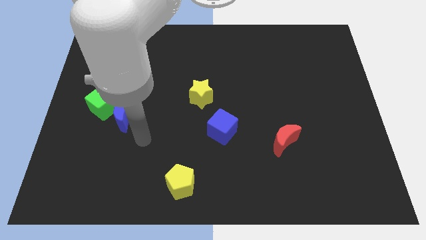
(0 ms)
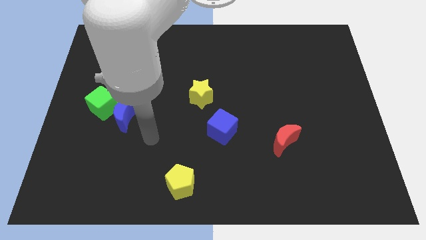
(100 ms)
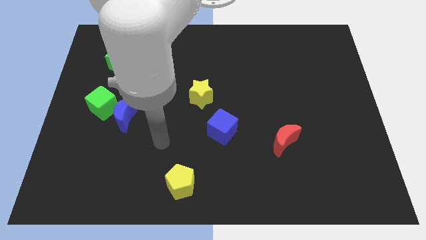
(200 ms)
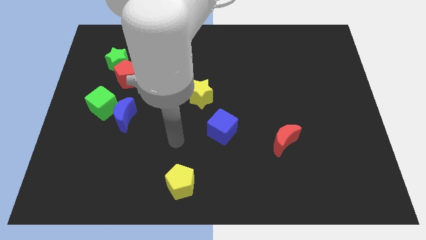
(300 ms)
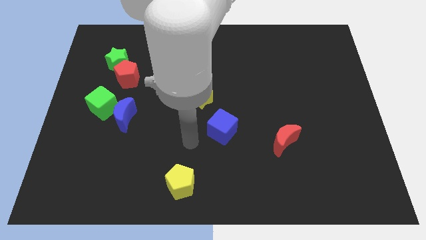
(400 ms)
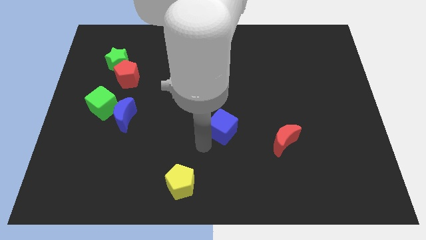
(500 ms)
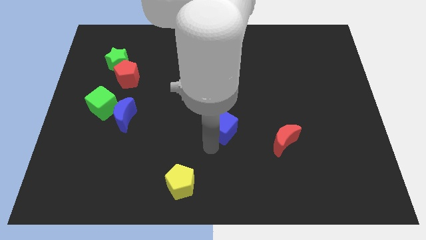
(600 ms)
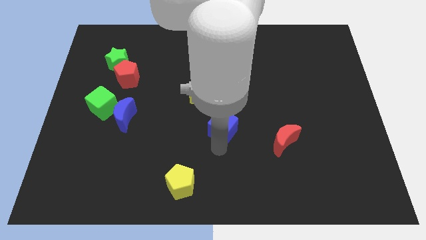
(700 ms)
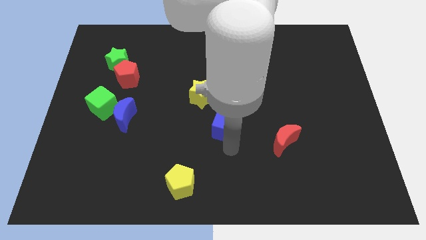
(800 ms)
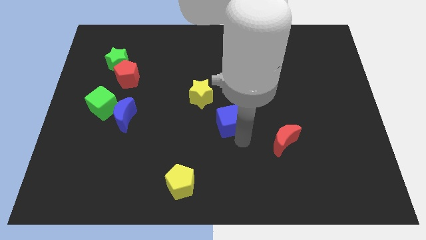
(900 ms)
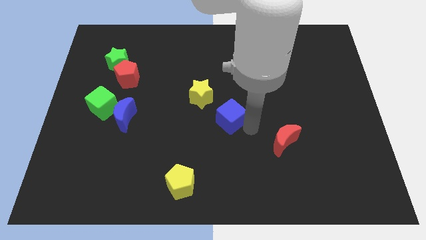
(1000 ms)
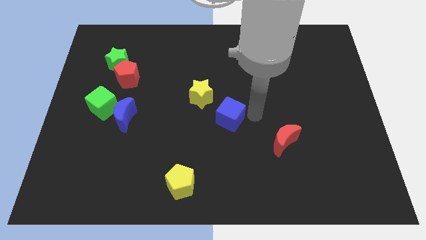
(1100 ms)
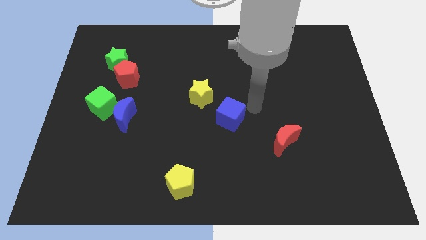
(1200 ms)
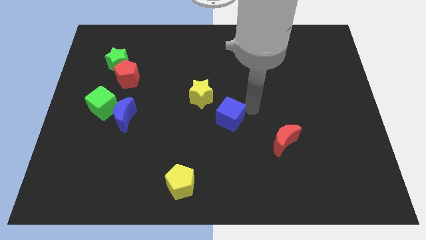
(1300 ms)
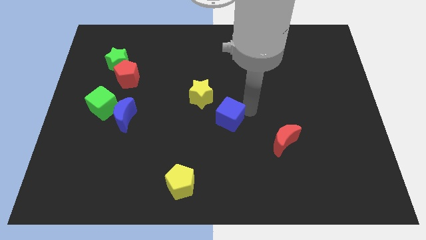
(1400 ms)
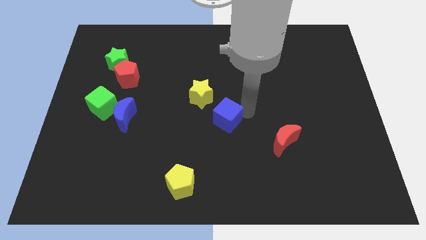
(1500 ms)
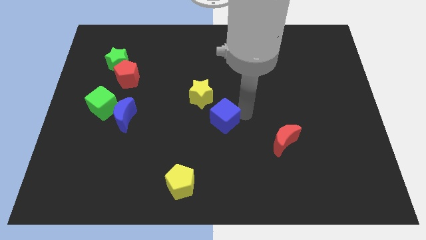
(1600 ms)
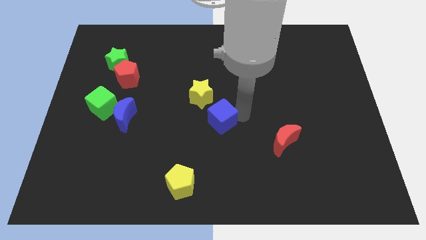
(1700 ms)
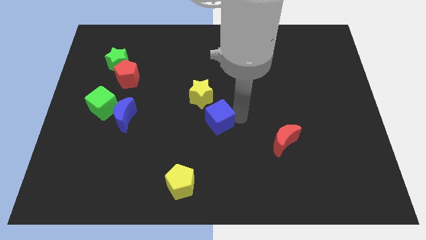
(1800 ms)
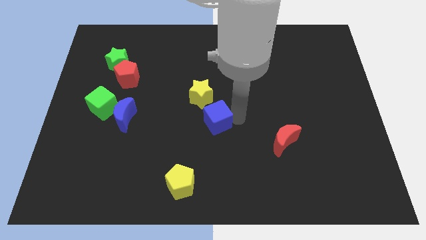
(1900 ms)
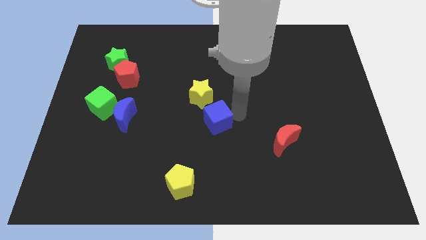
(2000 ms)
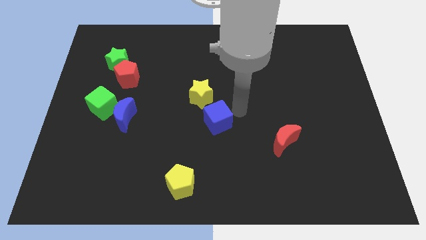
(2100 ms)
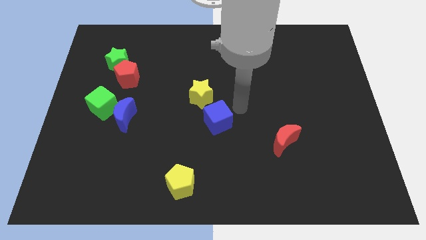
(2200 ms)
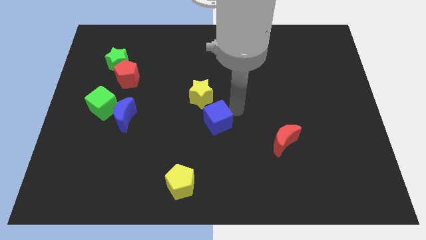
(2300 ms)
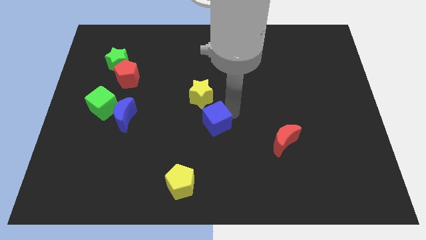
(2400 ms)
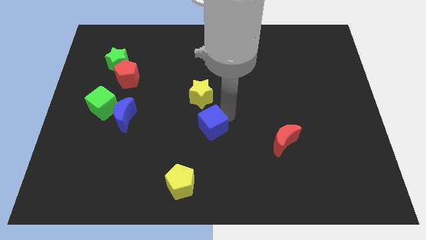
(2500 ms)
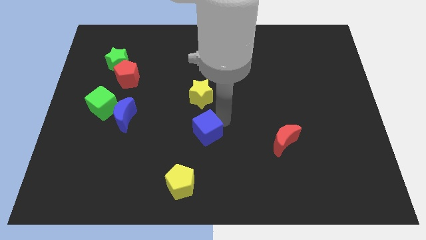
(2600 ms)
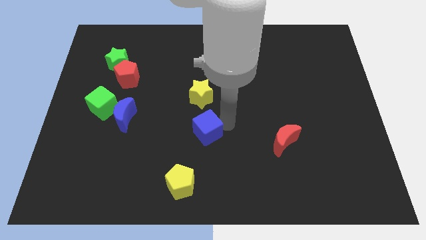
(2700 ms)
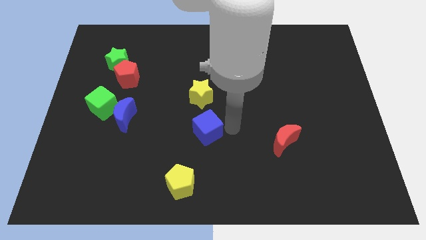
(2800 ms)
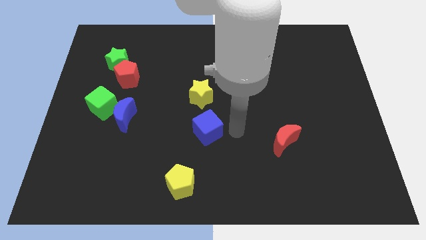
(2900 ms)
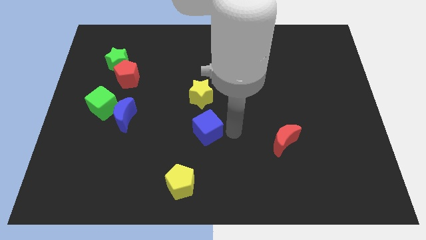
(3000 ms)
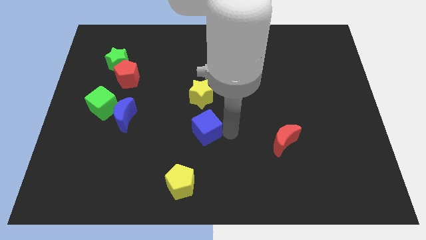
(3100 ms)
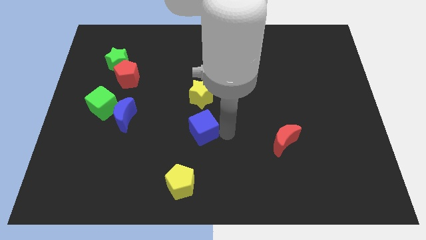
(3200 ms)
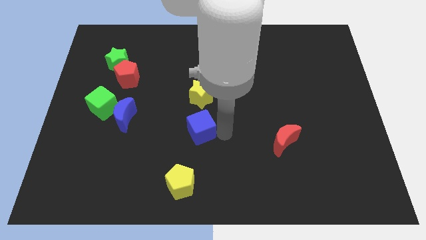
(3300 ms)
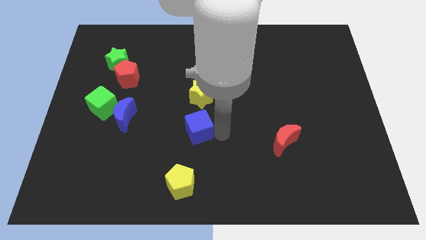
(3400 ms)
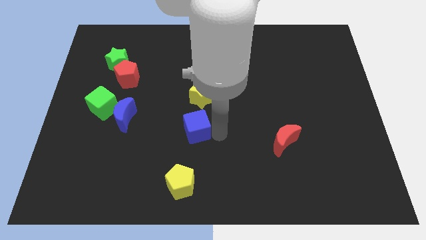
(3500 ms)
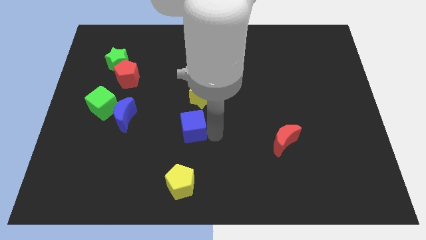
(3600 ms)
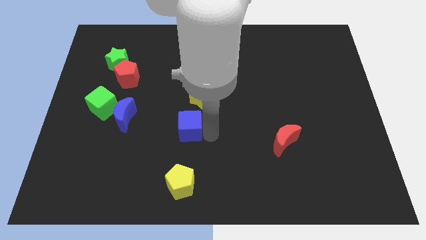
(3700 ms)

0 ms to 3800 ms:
move the blue cube a bit left

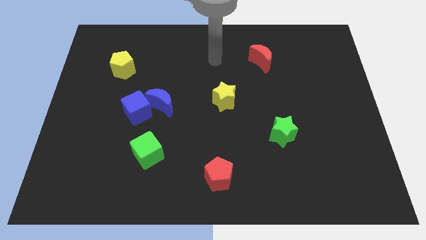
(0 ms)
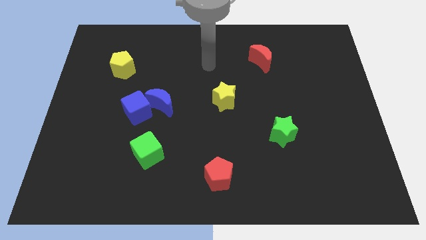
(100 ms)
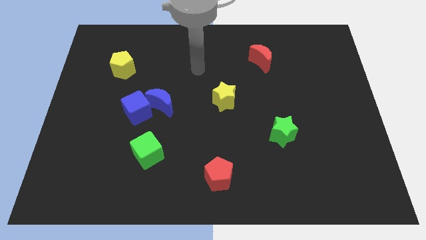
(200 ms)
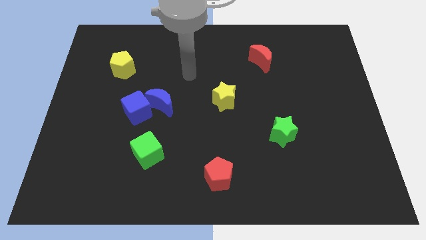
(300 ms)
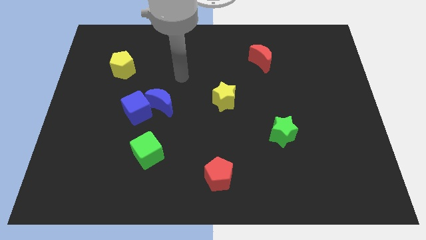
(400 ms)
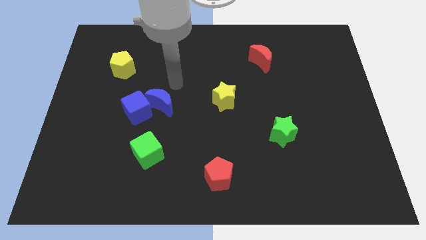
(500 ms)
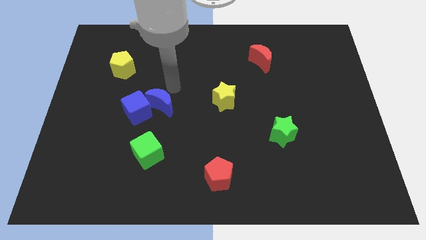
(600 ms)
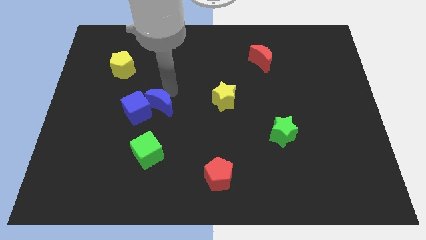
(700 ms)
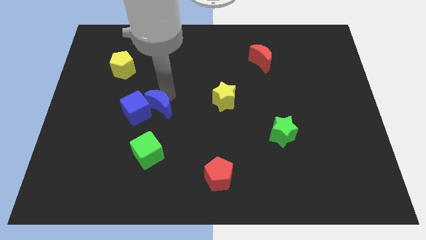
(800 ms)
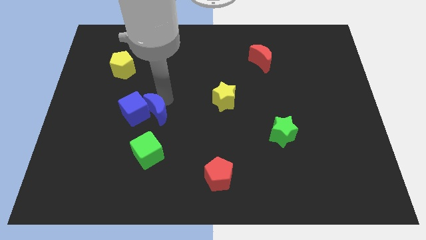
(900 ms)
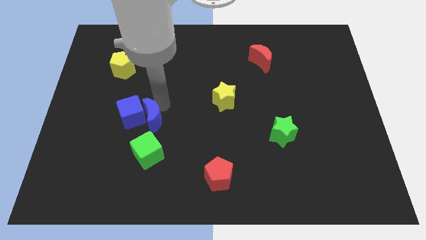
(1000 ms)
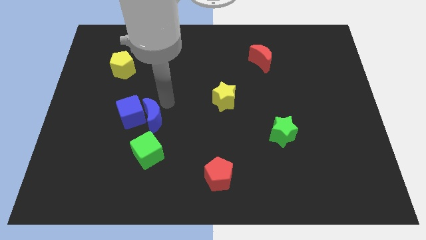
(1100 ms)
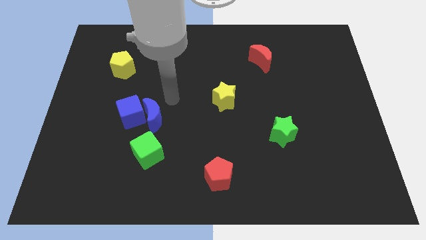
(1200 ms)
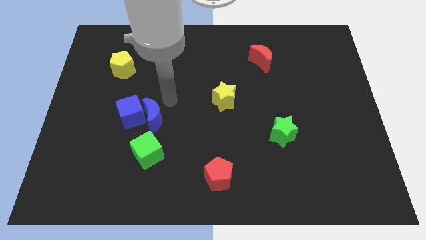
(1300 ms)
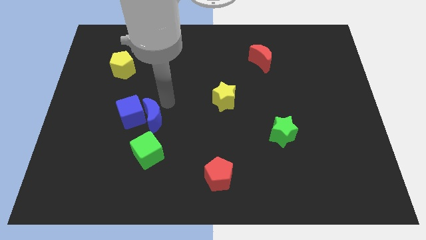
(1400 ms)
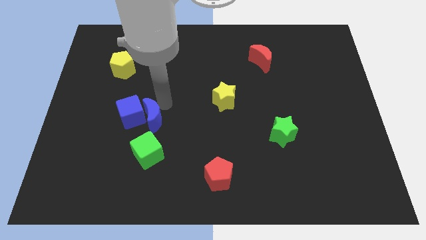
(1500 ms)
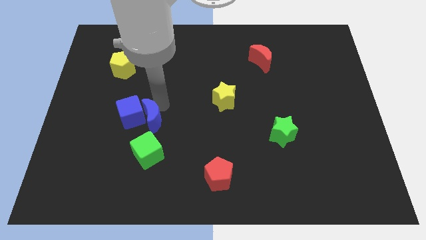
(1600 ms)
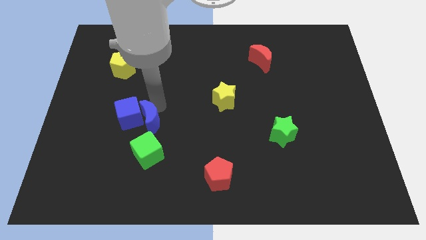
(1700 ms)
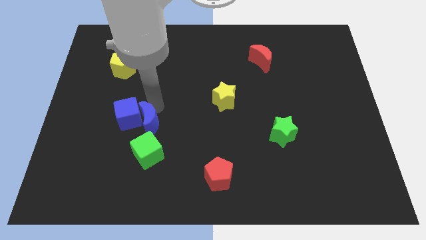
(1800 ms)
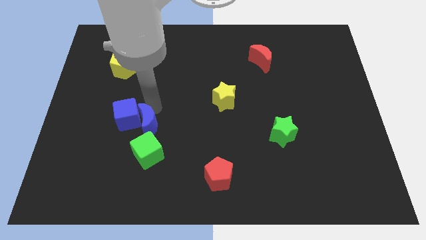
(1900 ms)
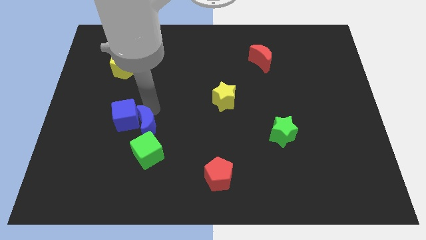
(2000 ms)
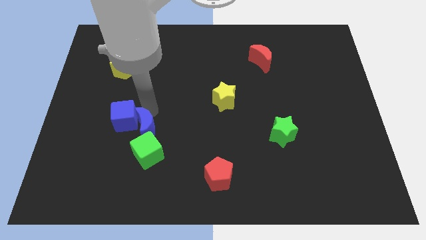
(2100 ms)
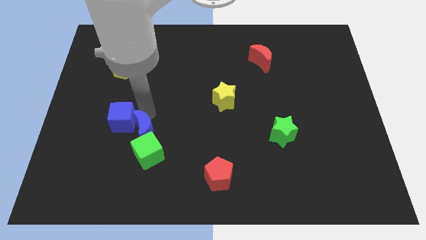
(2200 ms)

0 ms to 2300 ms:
slightly push the blue moon downwards and left

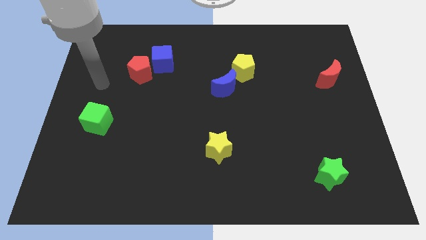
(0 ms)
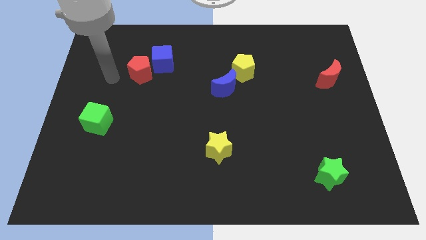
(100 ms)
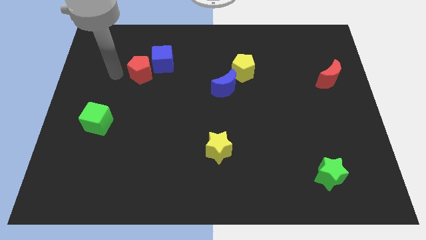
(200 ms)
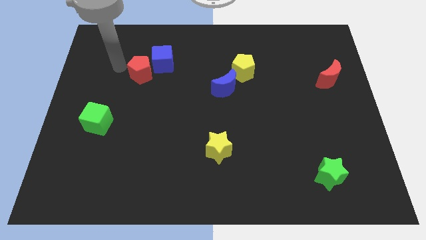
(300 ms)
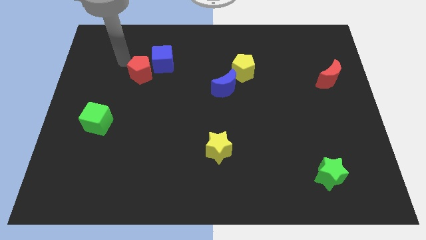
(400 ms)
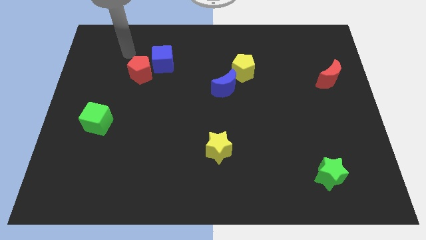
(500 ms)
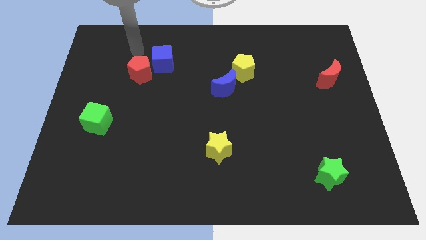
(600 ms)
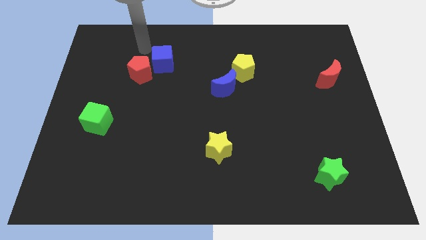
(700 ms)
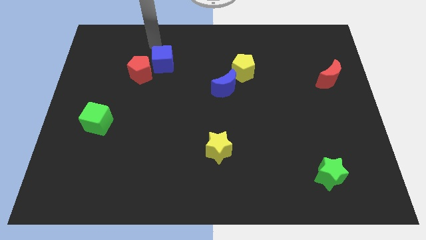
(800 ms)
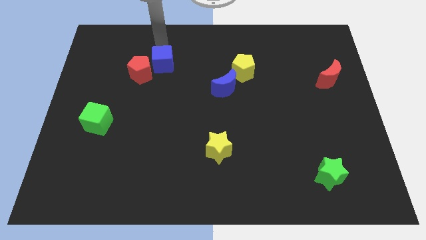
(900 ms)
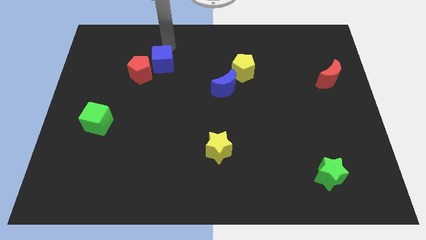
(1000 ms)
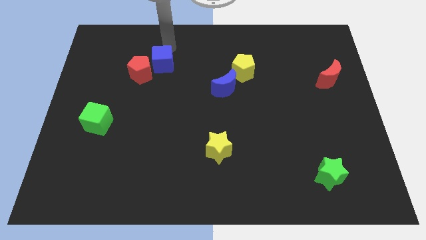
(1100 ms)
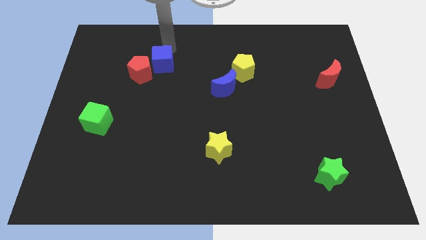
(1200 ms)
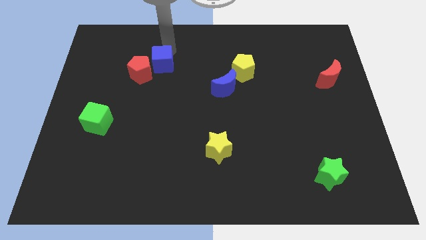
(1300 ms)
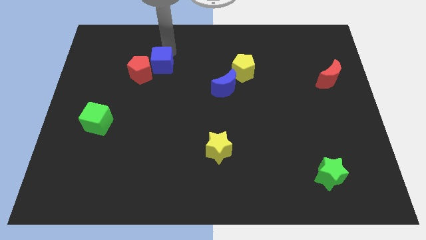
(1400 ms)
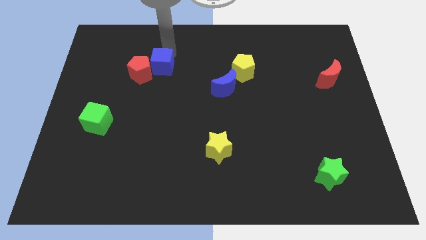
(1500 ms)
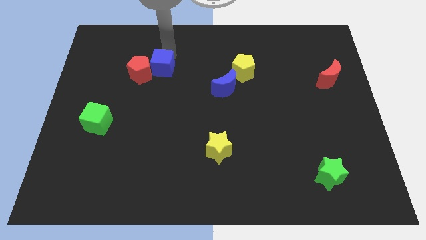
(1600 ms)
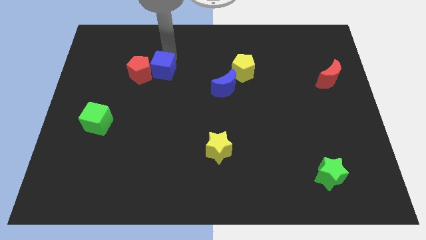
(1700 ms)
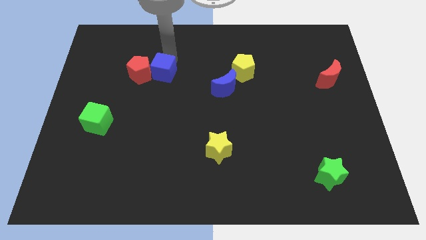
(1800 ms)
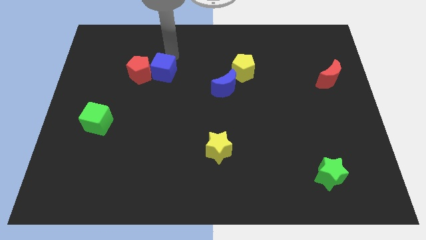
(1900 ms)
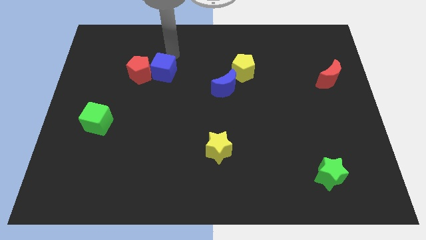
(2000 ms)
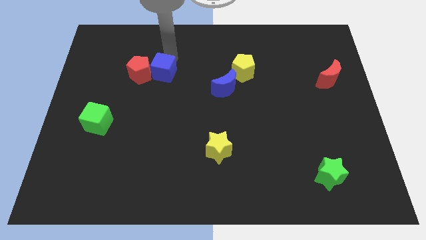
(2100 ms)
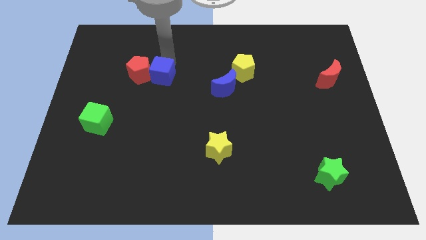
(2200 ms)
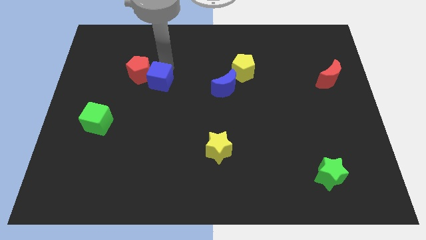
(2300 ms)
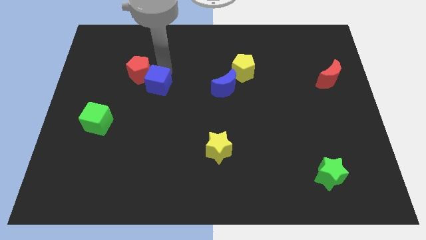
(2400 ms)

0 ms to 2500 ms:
slide the blue cube a little down

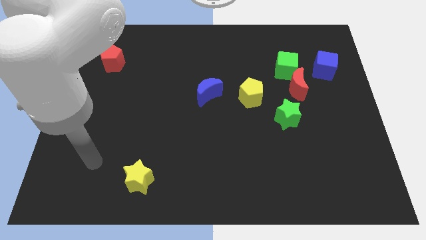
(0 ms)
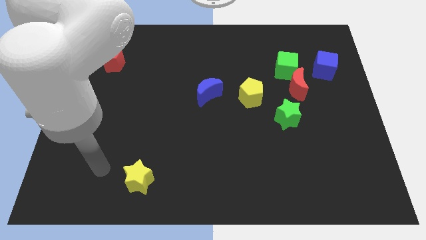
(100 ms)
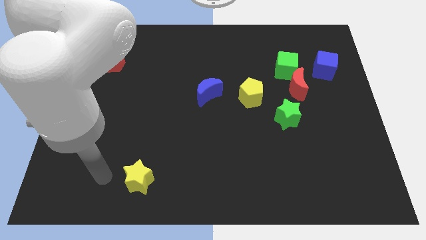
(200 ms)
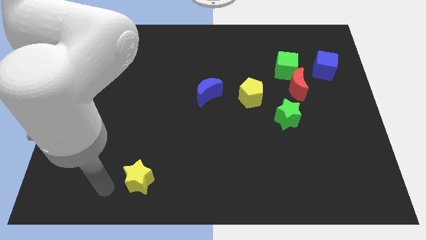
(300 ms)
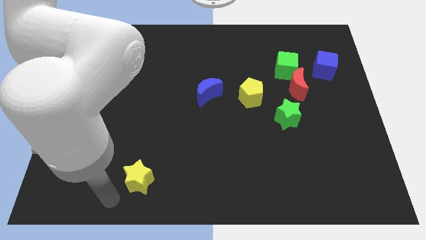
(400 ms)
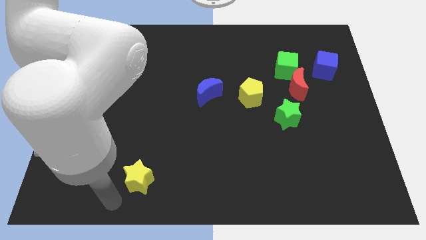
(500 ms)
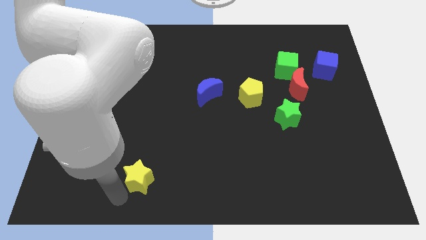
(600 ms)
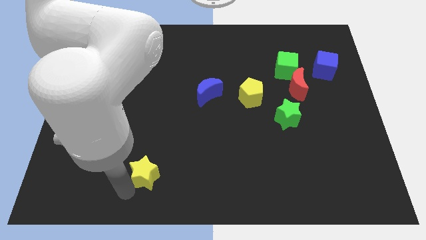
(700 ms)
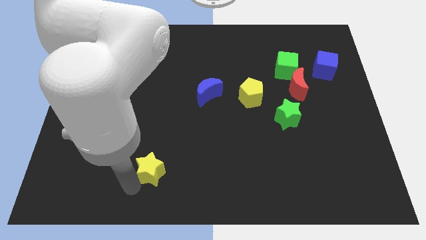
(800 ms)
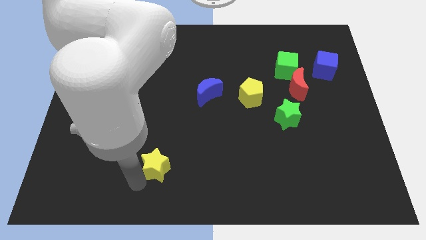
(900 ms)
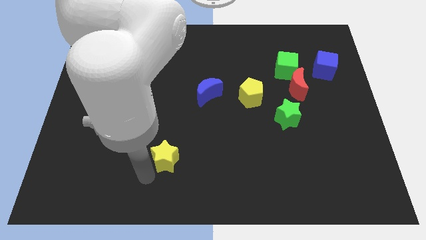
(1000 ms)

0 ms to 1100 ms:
slightly push the yellow star up and to the right
